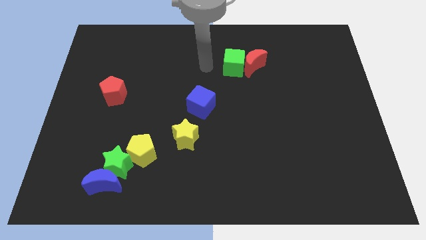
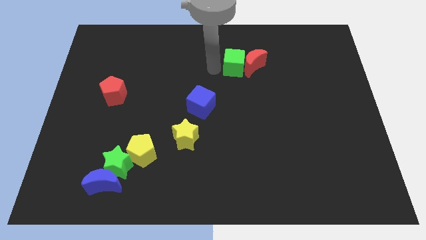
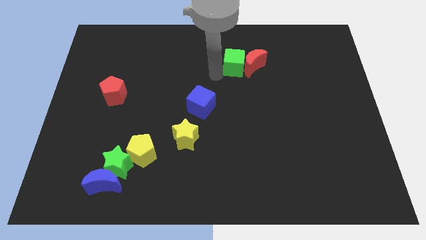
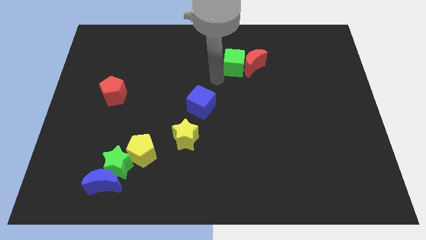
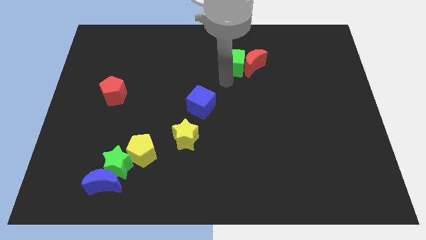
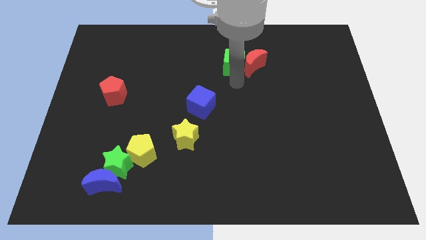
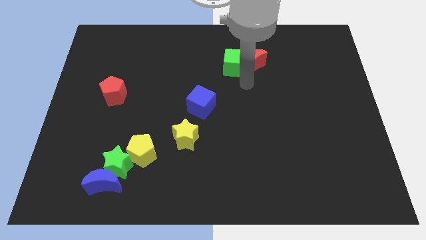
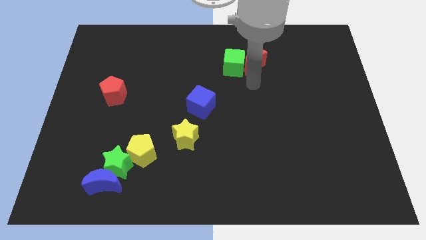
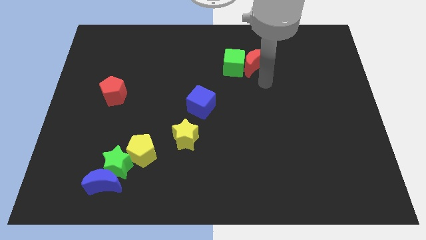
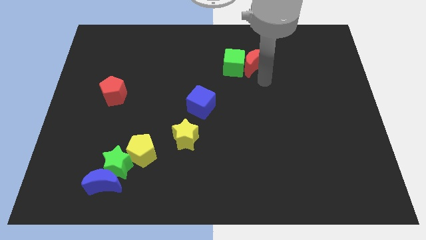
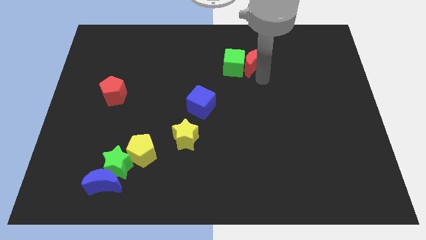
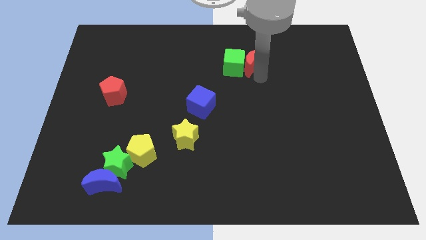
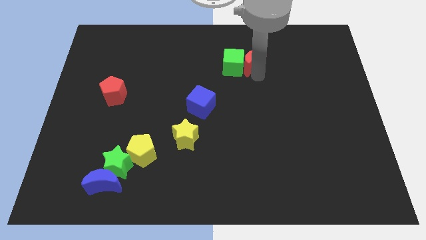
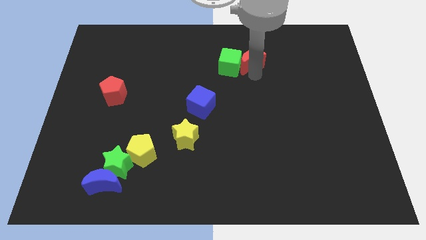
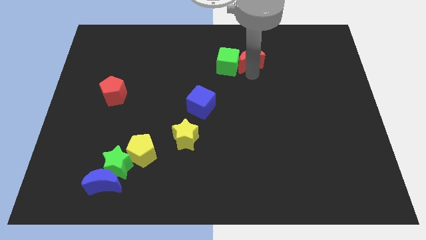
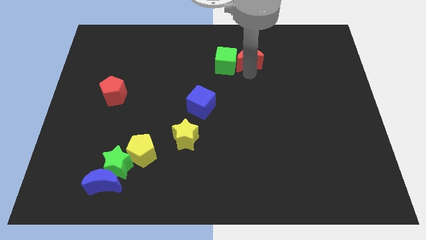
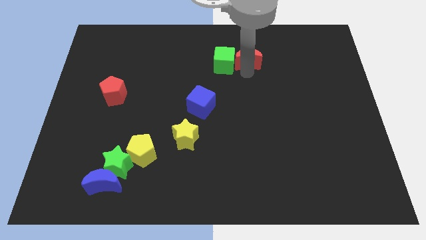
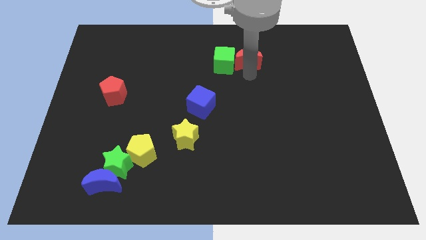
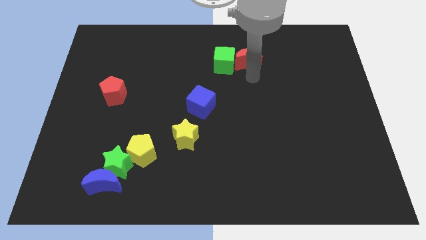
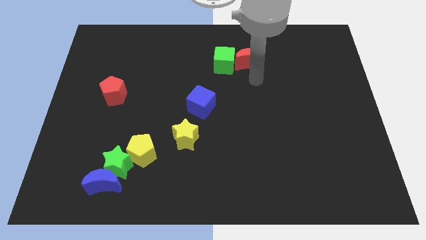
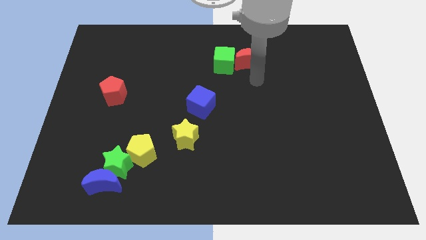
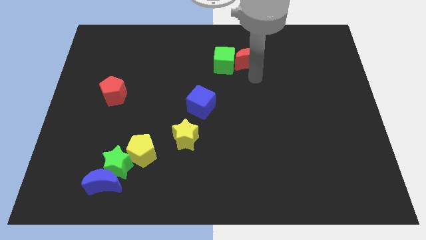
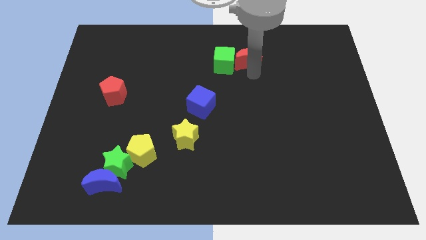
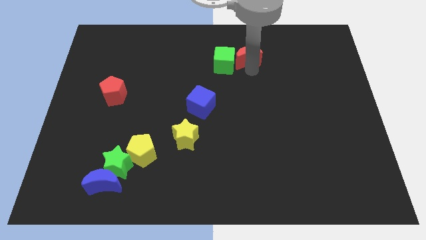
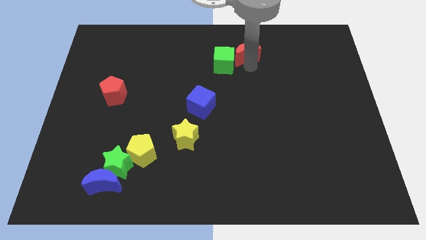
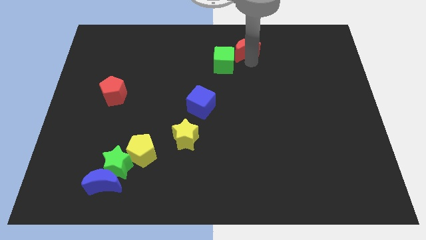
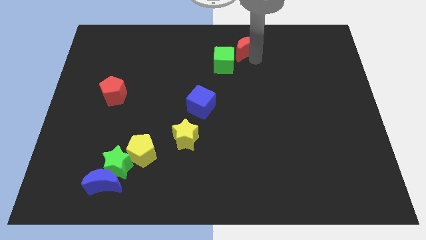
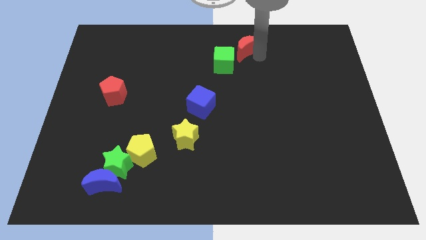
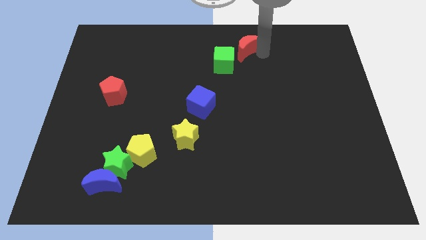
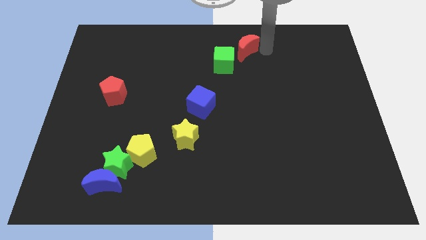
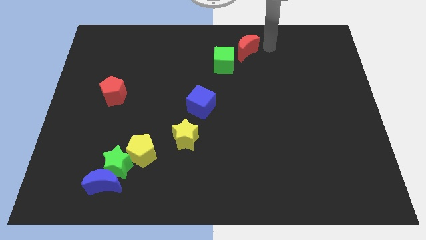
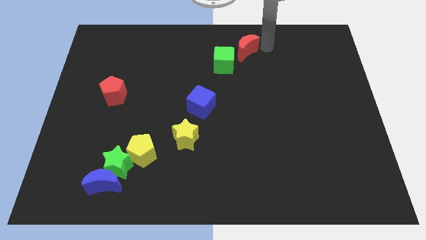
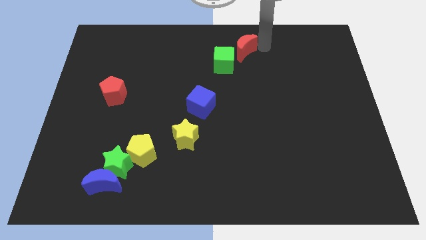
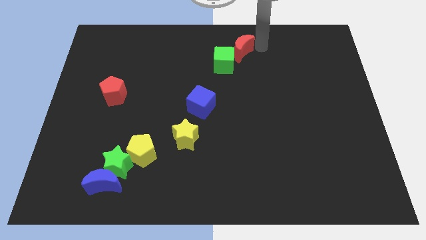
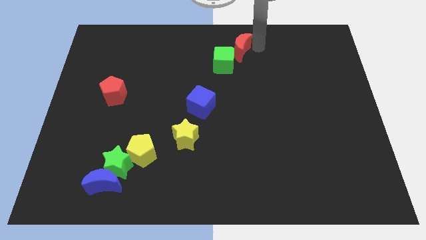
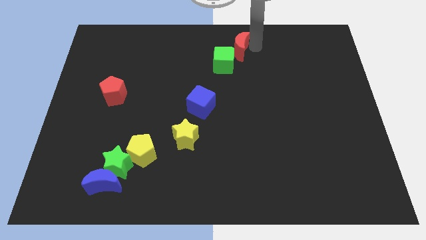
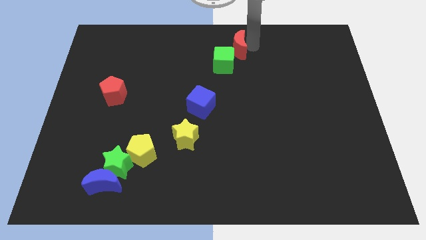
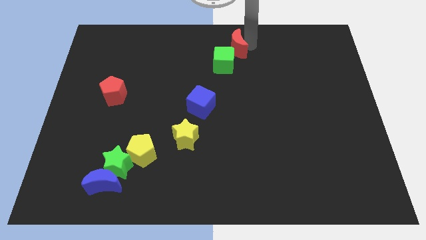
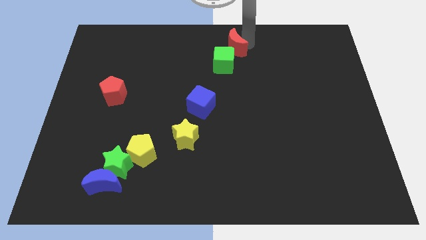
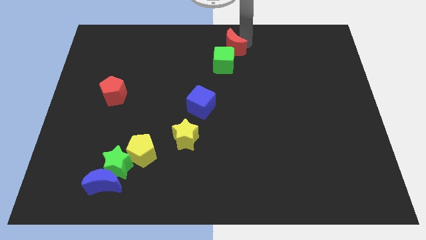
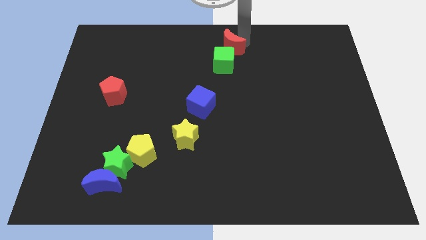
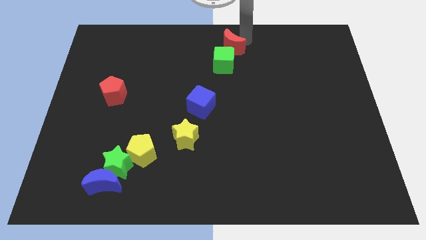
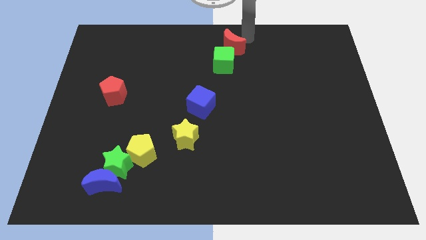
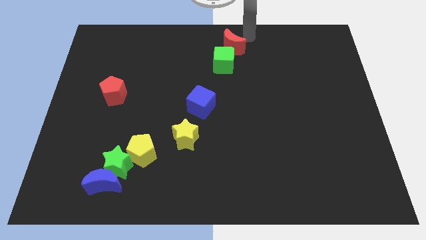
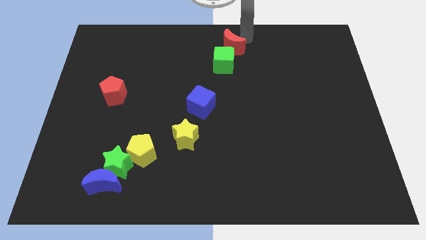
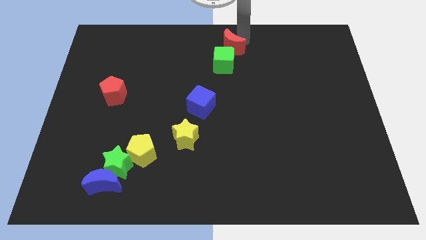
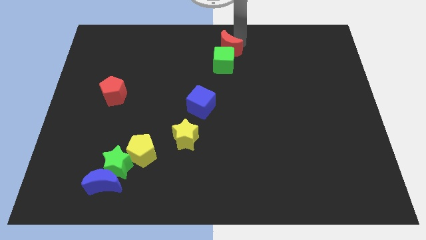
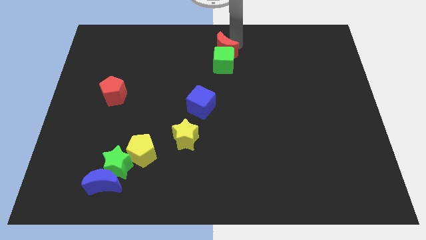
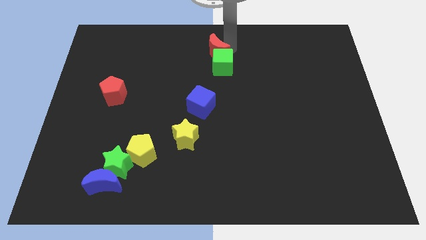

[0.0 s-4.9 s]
slightly move the red moon left

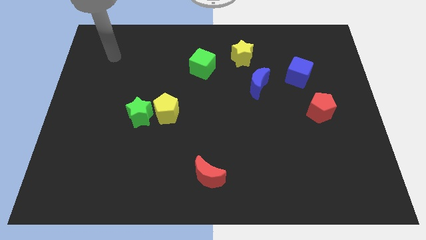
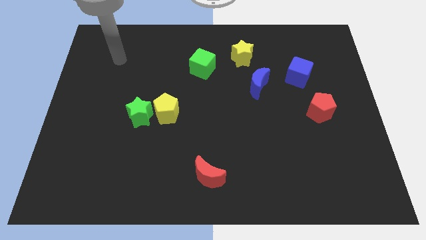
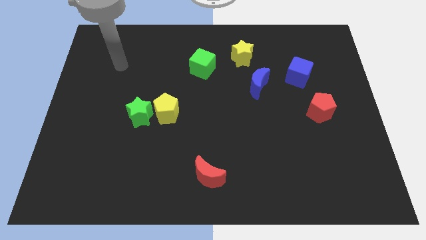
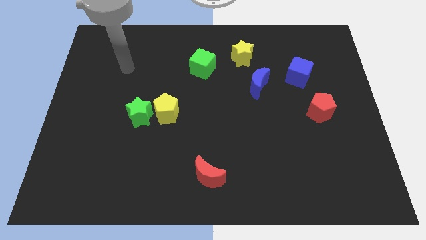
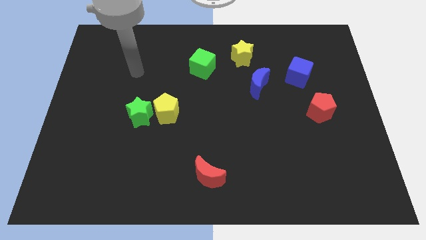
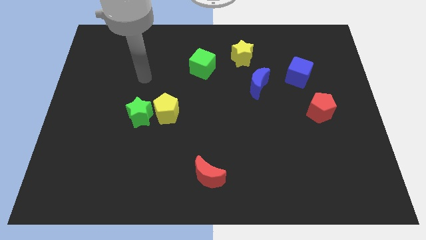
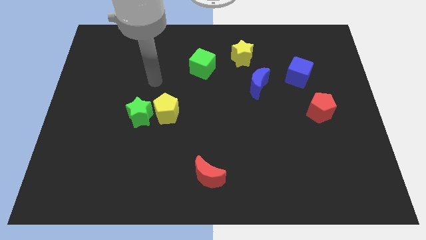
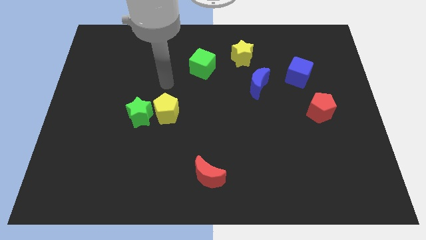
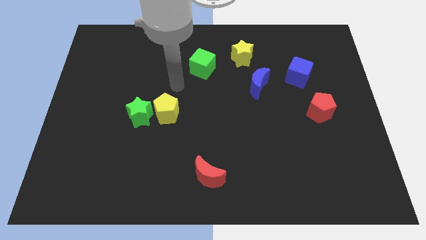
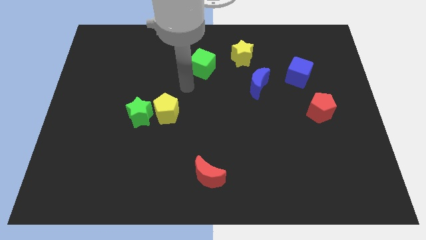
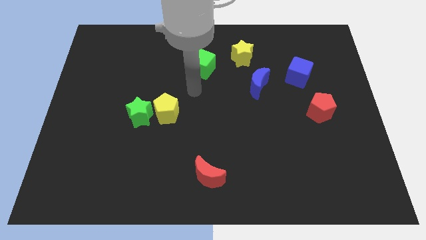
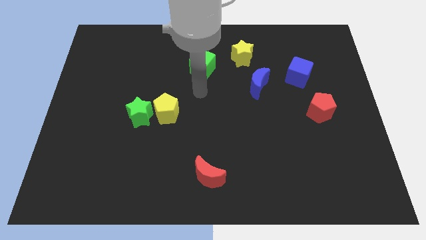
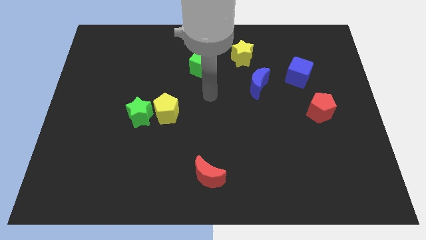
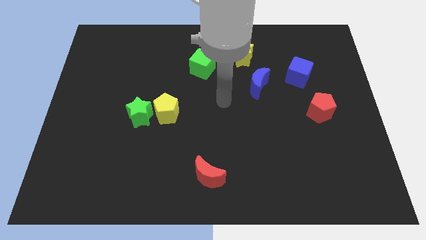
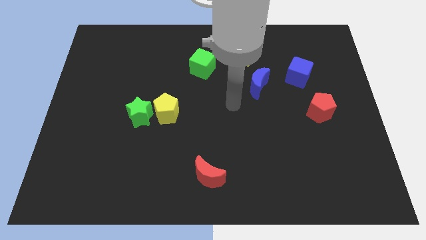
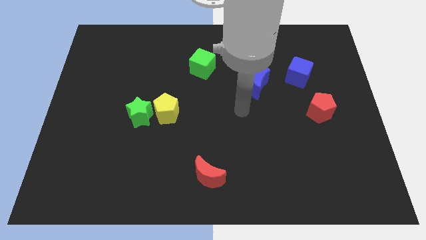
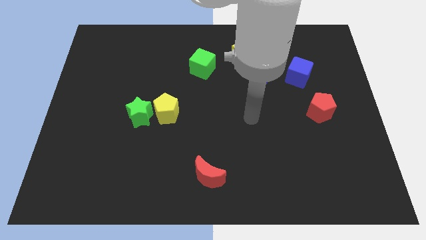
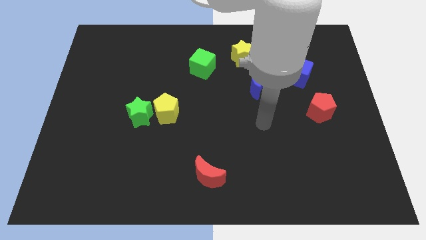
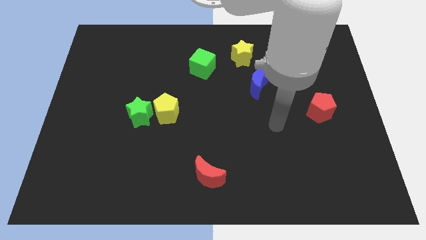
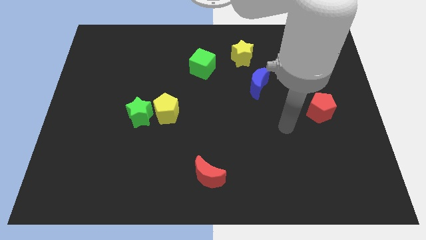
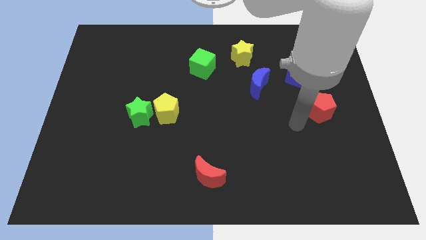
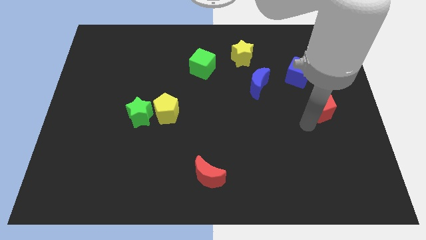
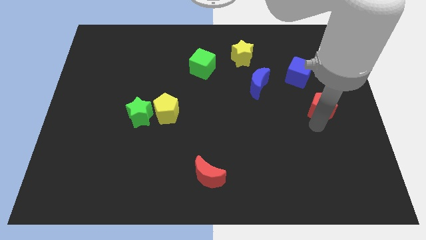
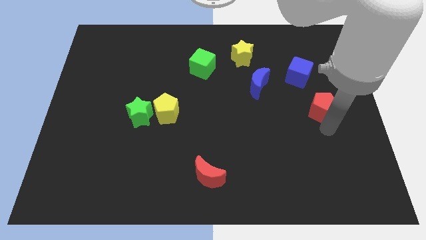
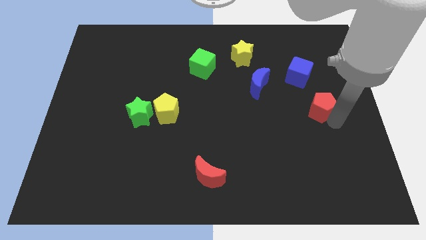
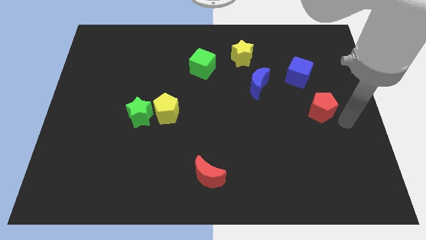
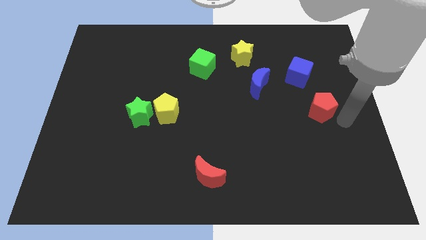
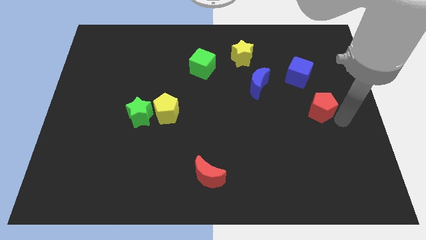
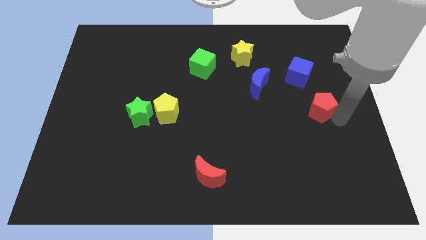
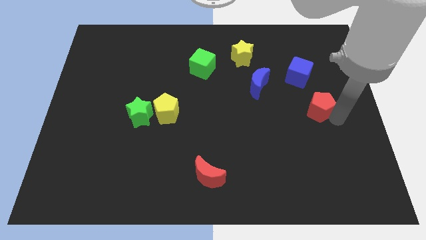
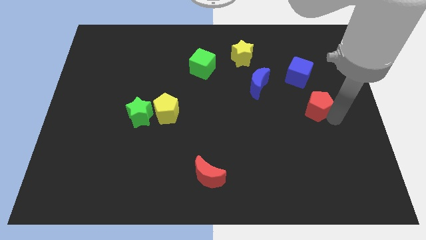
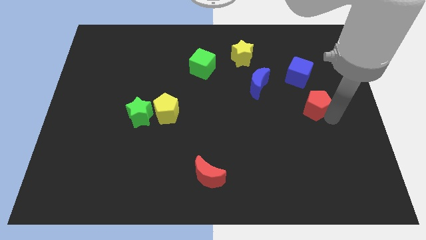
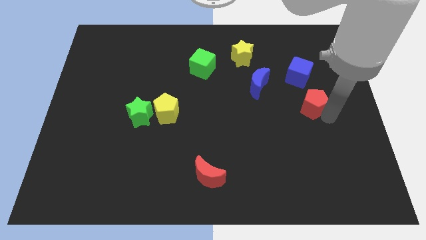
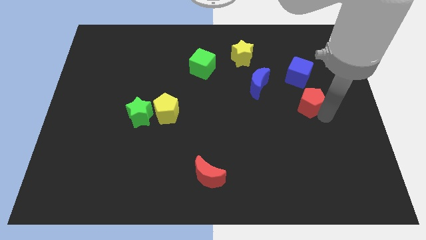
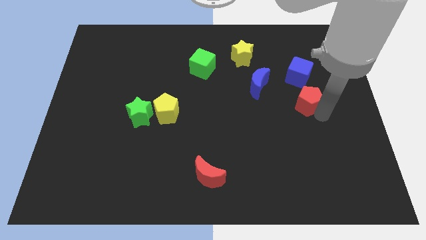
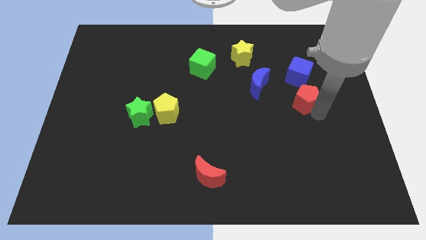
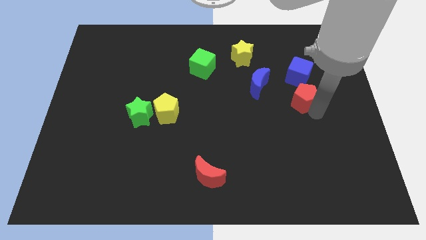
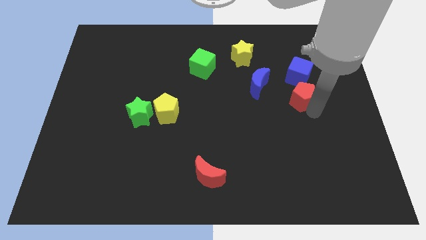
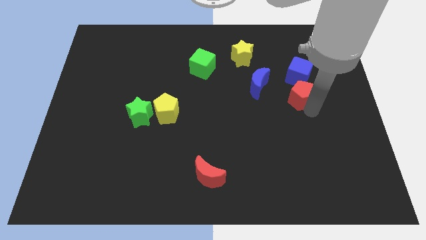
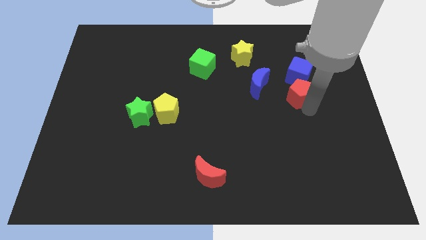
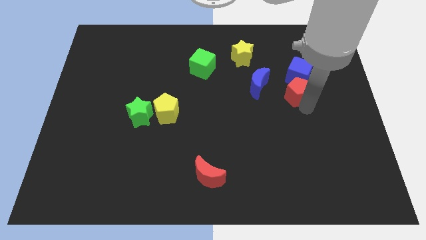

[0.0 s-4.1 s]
slightly move the red pentagon upwards and to the left
